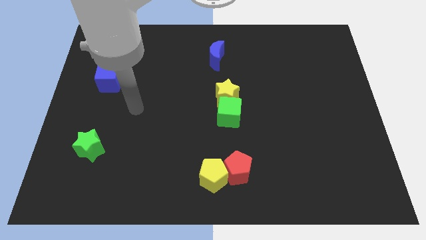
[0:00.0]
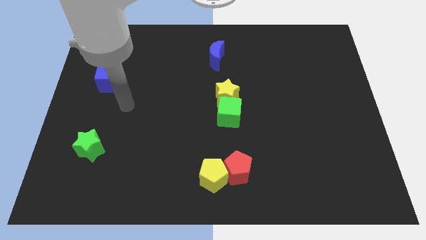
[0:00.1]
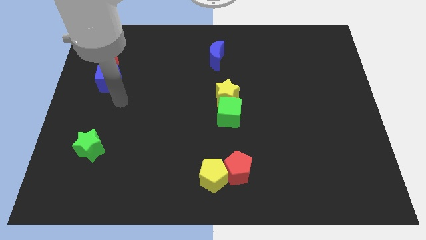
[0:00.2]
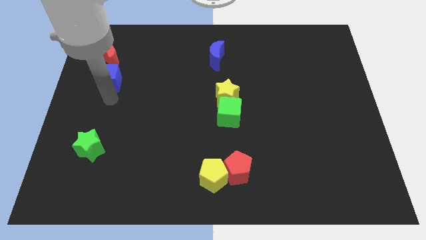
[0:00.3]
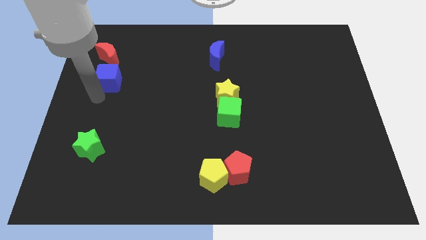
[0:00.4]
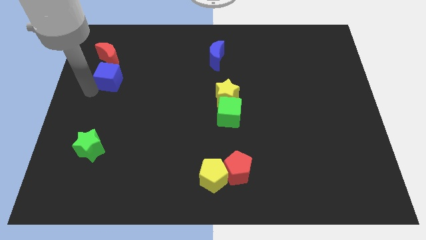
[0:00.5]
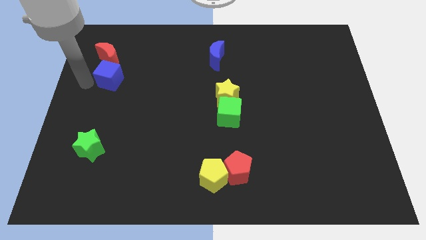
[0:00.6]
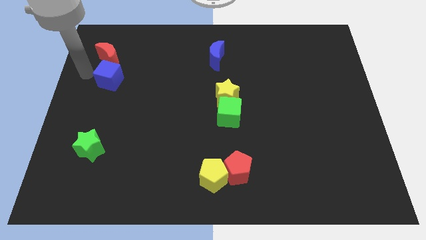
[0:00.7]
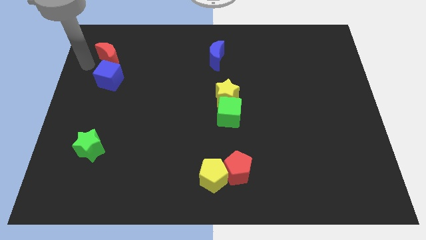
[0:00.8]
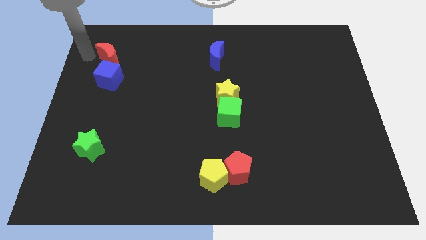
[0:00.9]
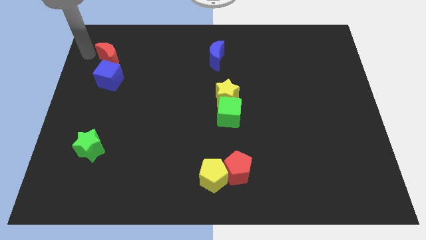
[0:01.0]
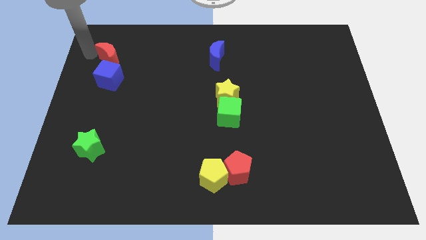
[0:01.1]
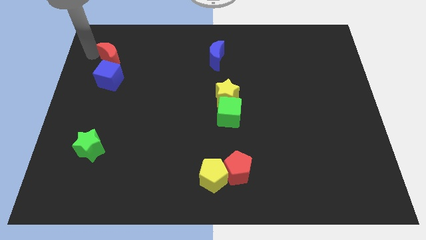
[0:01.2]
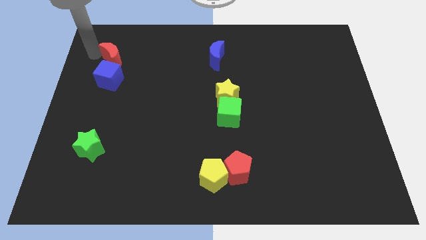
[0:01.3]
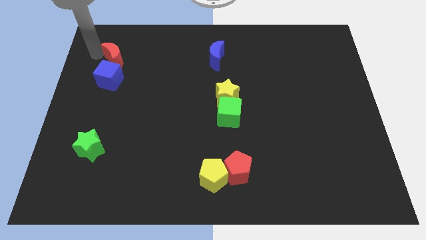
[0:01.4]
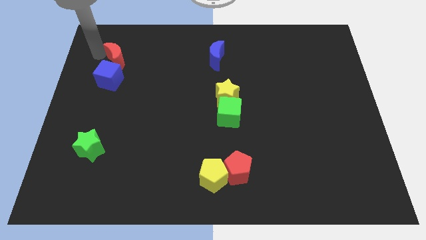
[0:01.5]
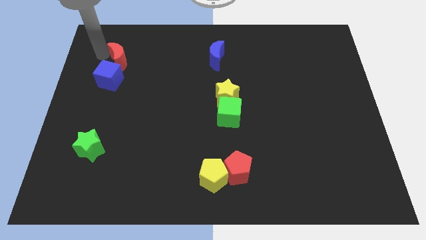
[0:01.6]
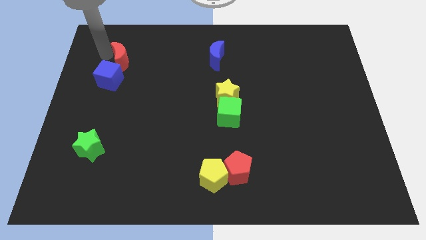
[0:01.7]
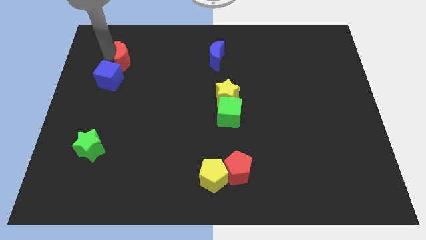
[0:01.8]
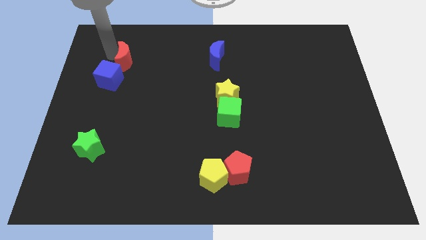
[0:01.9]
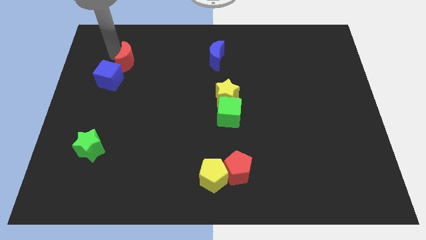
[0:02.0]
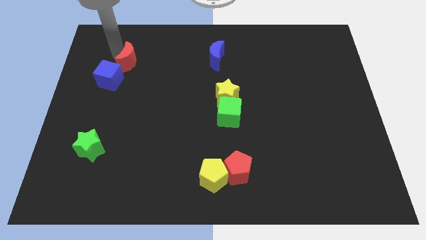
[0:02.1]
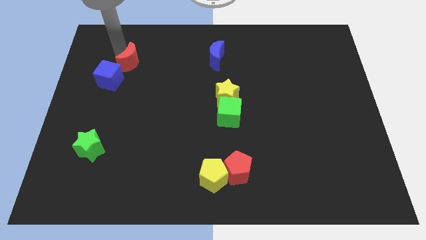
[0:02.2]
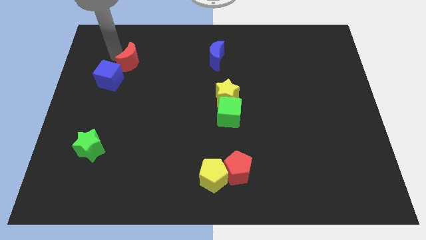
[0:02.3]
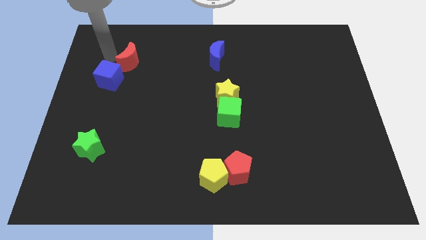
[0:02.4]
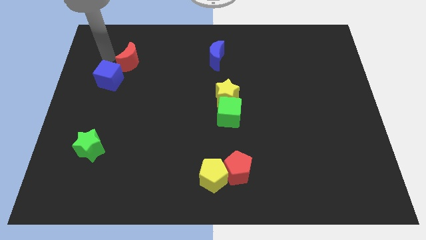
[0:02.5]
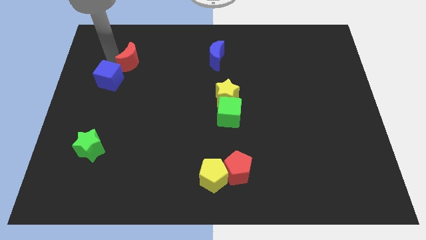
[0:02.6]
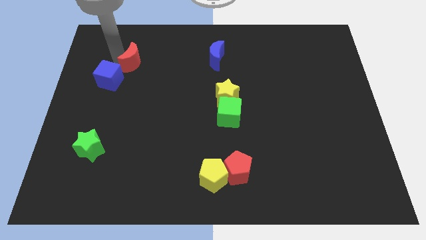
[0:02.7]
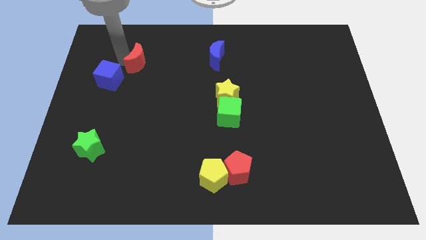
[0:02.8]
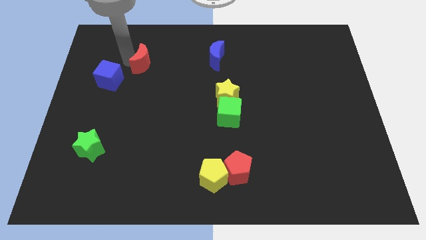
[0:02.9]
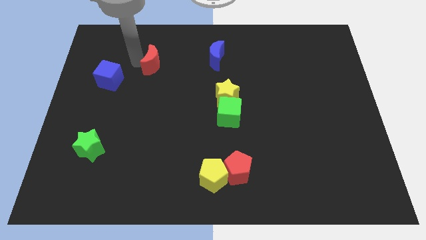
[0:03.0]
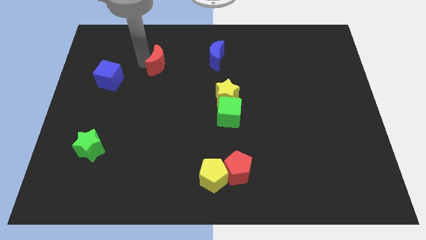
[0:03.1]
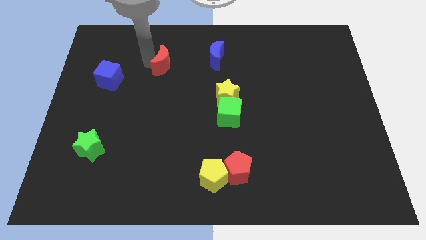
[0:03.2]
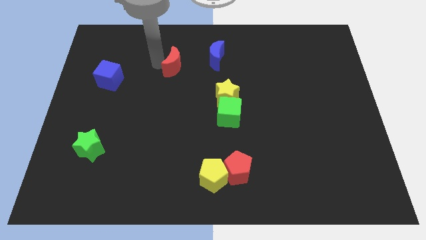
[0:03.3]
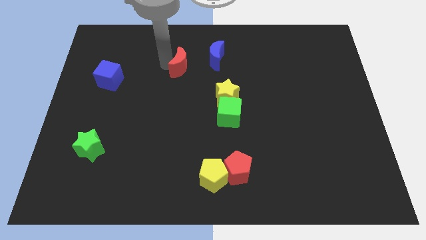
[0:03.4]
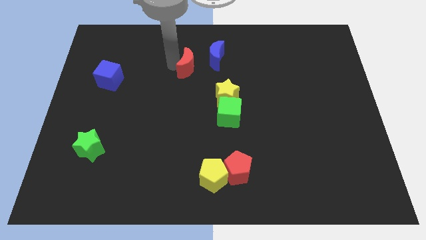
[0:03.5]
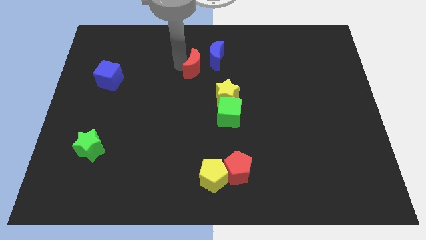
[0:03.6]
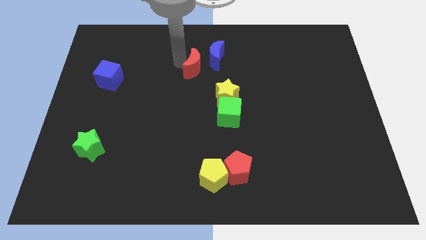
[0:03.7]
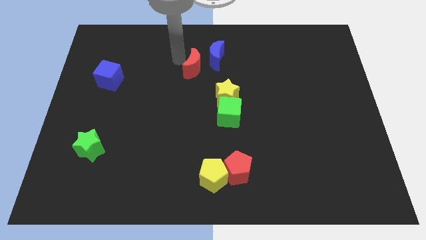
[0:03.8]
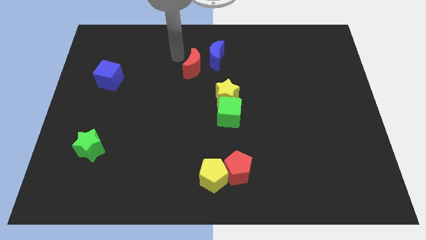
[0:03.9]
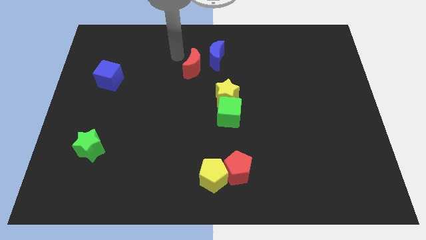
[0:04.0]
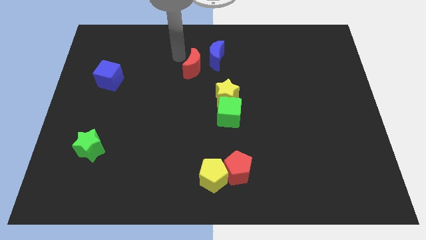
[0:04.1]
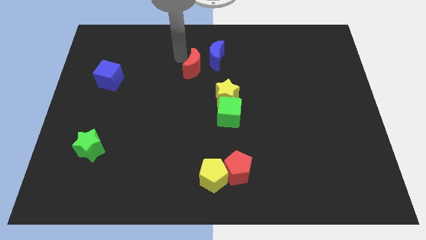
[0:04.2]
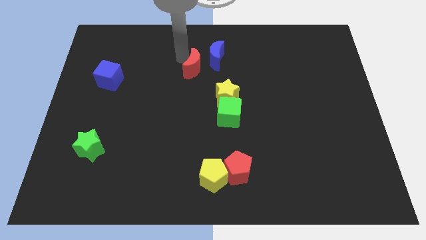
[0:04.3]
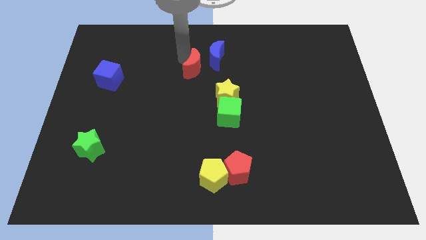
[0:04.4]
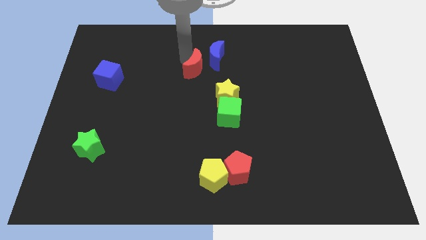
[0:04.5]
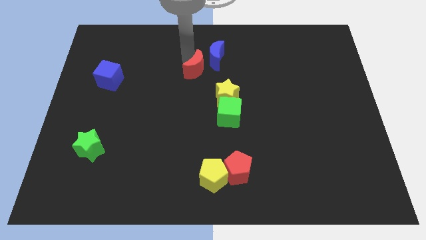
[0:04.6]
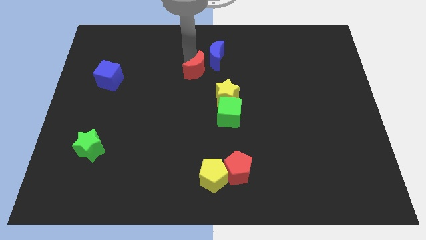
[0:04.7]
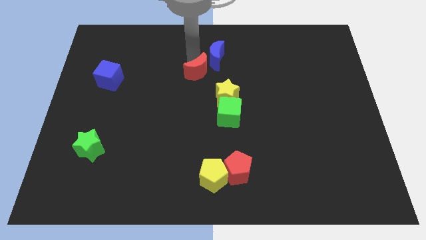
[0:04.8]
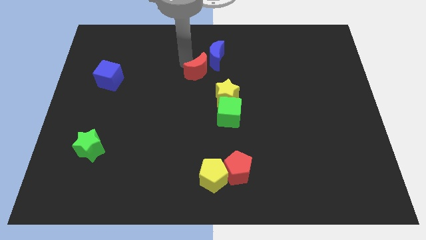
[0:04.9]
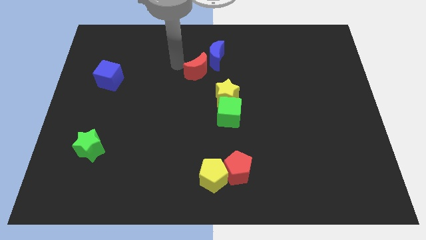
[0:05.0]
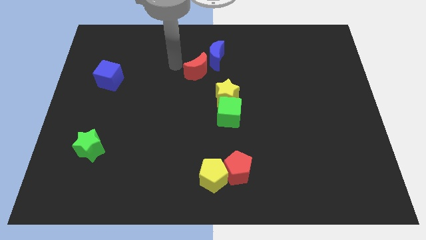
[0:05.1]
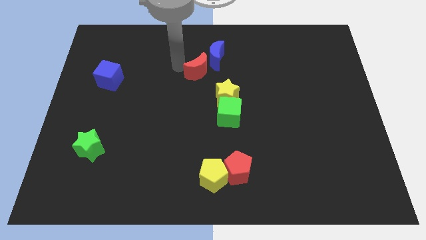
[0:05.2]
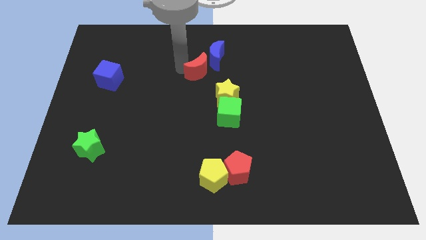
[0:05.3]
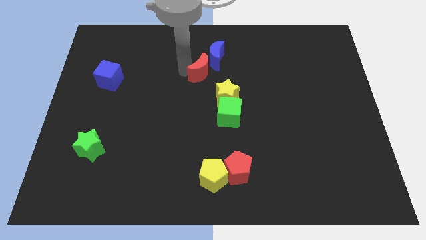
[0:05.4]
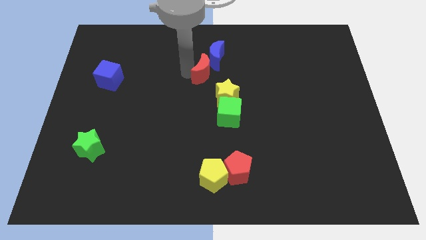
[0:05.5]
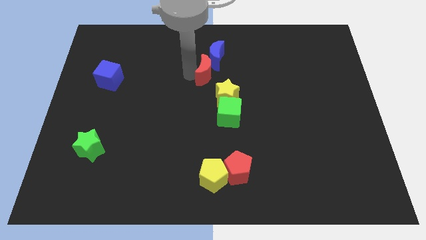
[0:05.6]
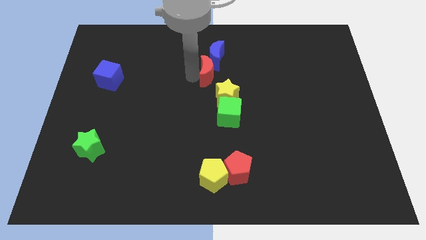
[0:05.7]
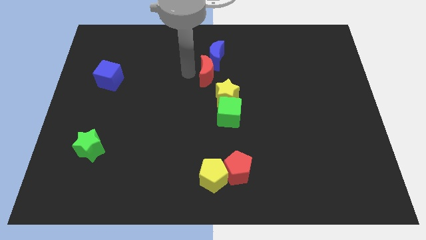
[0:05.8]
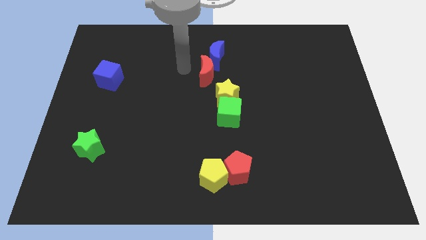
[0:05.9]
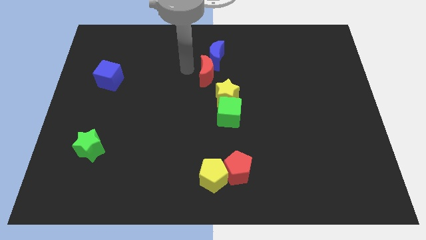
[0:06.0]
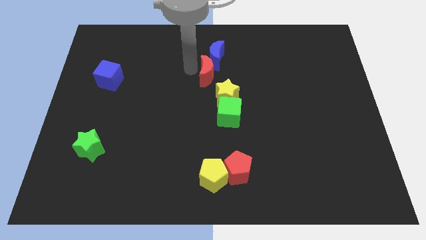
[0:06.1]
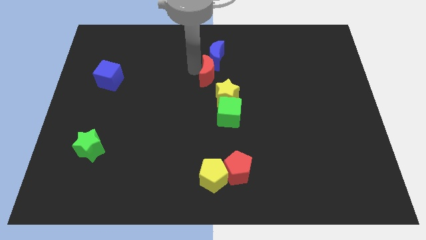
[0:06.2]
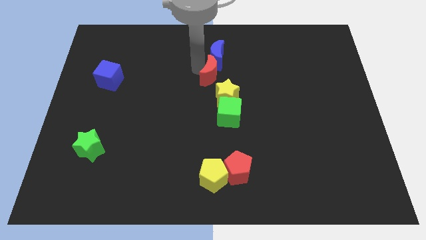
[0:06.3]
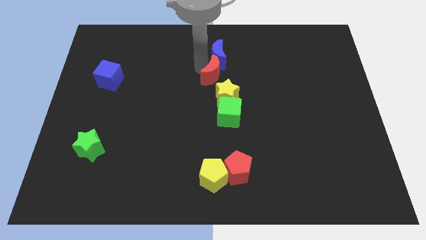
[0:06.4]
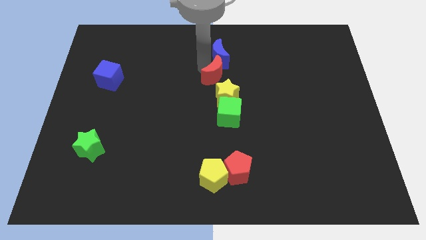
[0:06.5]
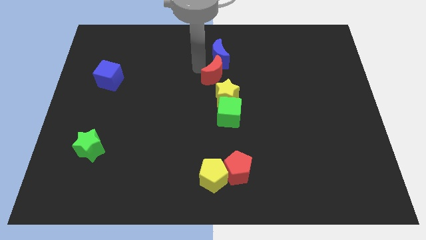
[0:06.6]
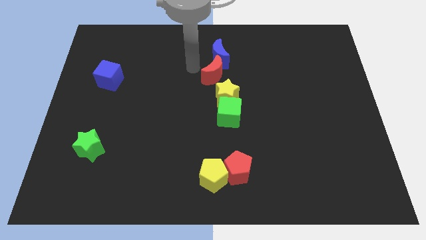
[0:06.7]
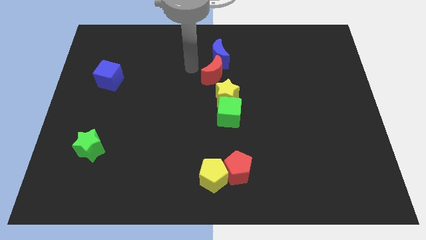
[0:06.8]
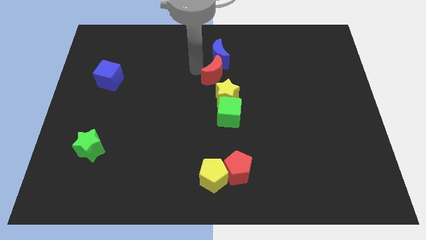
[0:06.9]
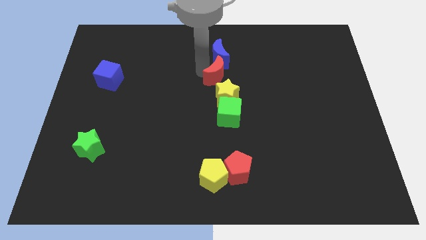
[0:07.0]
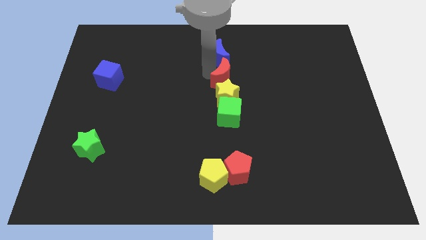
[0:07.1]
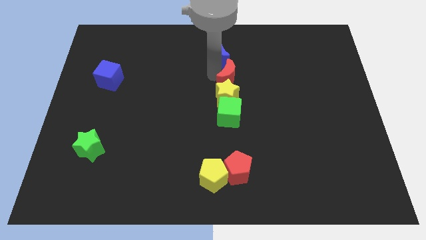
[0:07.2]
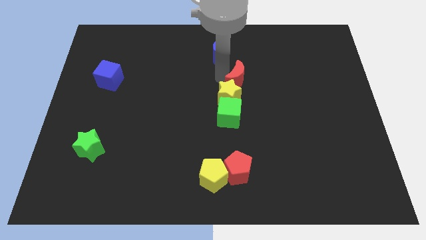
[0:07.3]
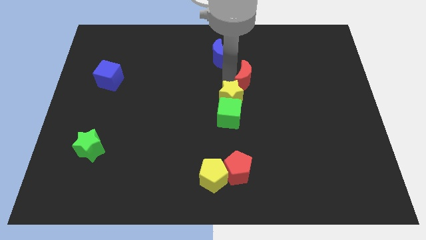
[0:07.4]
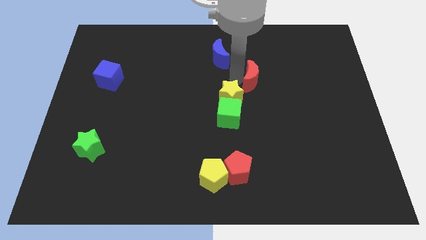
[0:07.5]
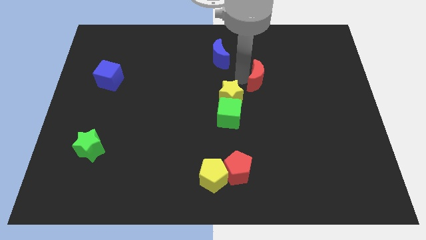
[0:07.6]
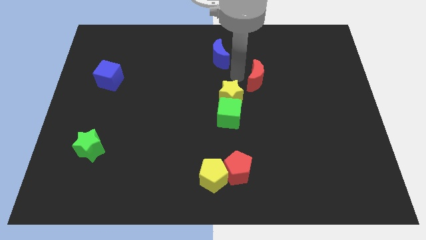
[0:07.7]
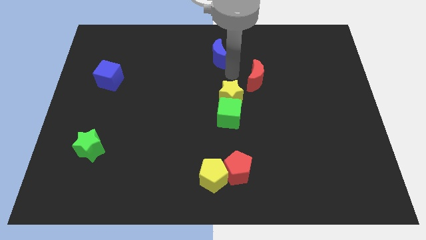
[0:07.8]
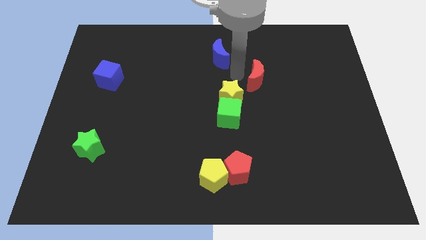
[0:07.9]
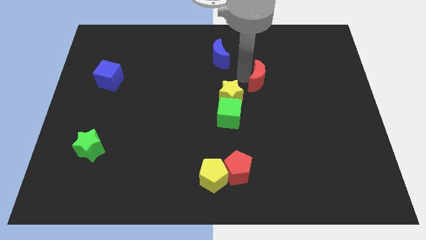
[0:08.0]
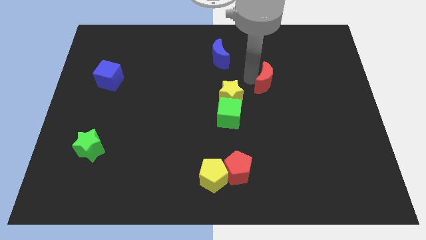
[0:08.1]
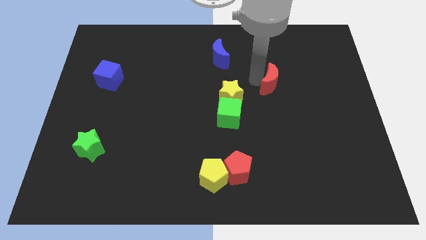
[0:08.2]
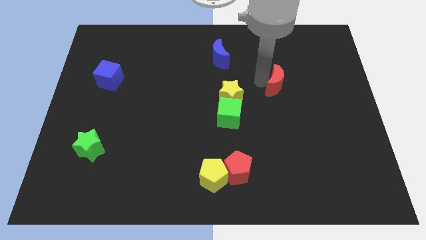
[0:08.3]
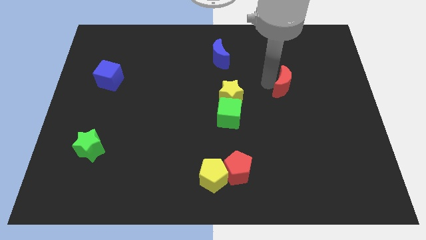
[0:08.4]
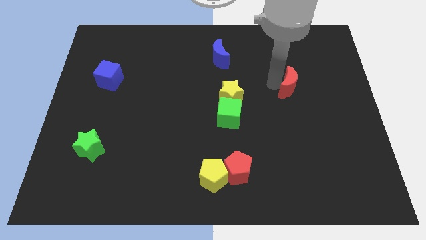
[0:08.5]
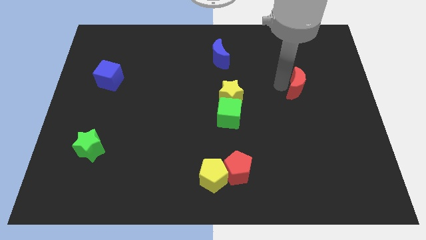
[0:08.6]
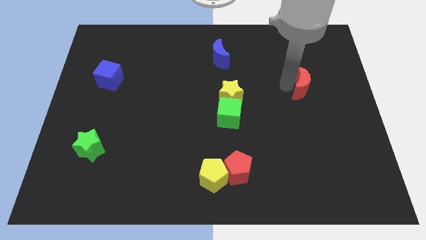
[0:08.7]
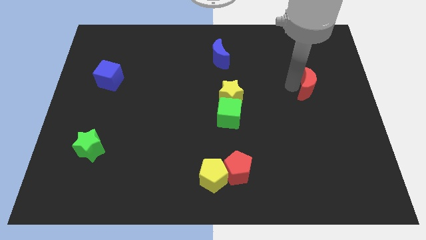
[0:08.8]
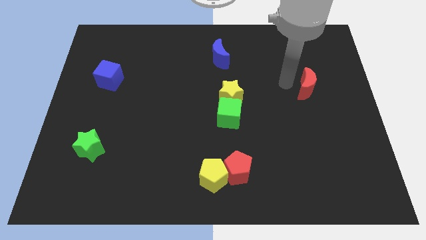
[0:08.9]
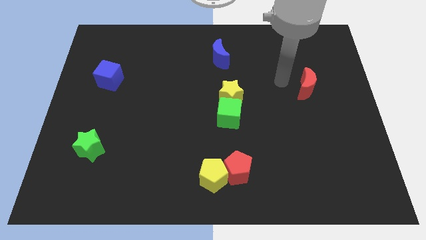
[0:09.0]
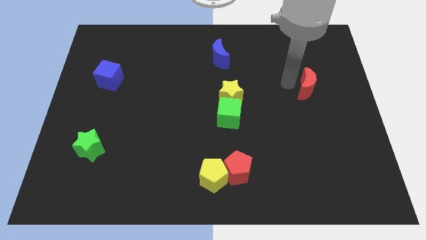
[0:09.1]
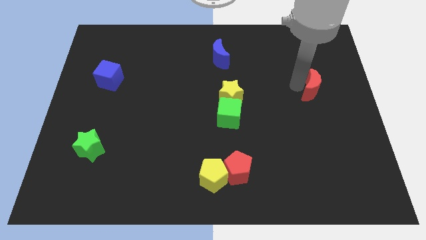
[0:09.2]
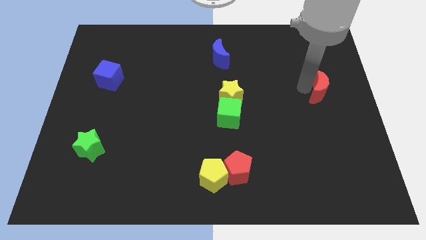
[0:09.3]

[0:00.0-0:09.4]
put the red moon to the right side of the board
